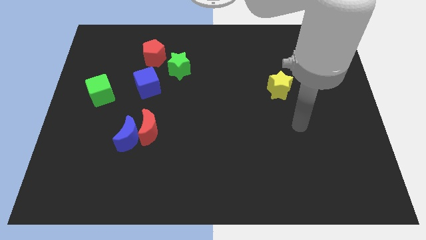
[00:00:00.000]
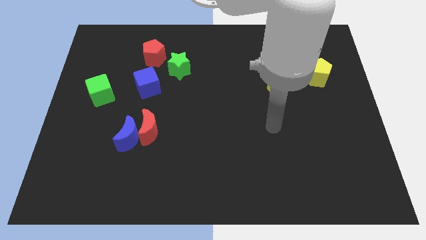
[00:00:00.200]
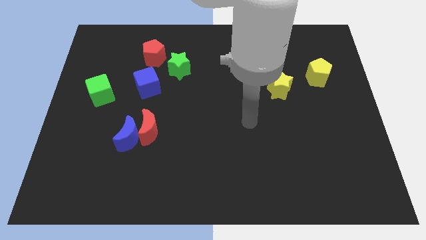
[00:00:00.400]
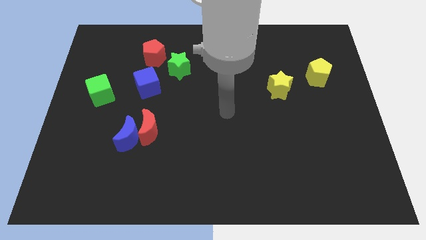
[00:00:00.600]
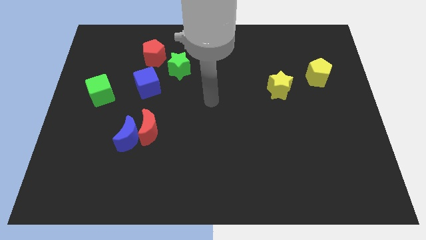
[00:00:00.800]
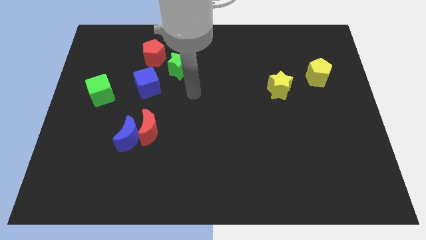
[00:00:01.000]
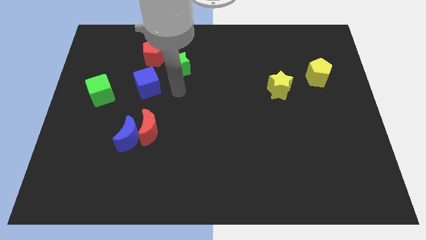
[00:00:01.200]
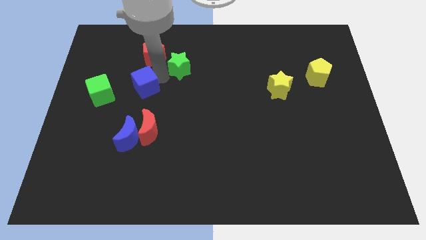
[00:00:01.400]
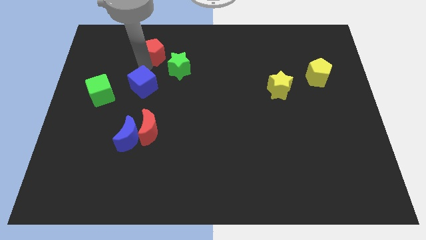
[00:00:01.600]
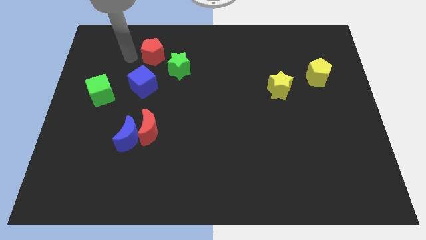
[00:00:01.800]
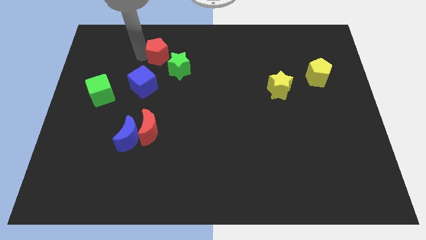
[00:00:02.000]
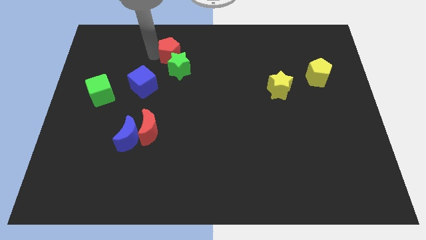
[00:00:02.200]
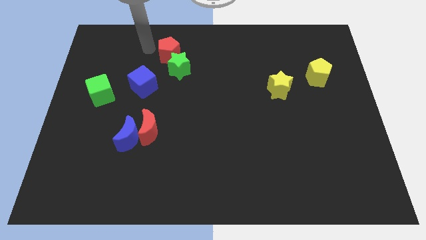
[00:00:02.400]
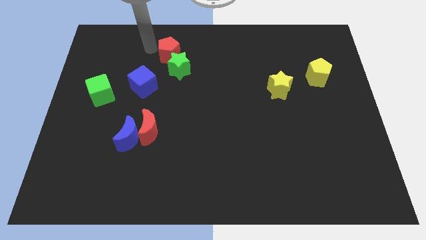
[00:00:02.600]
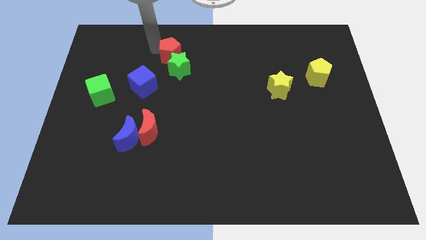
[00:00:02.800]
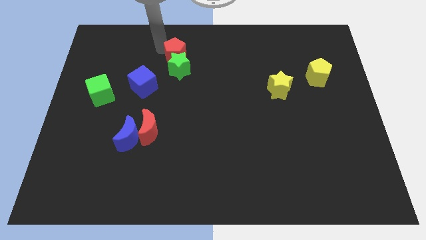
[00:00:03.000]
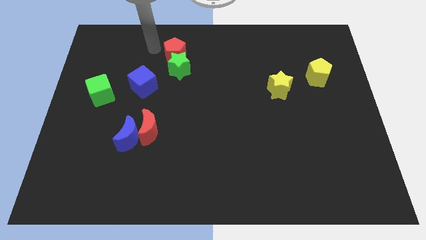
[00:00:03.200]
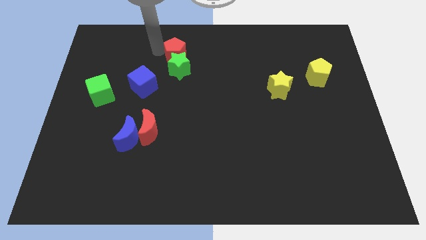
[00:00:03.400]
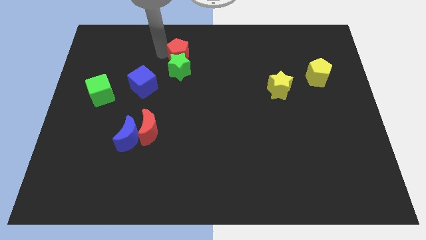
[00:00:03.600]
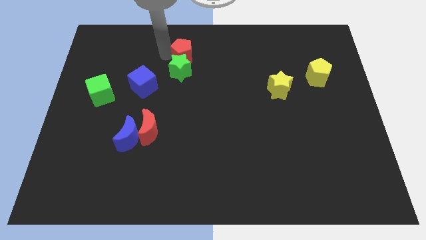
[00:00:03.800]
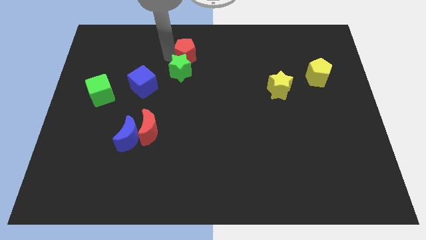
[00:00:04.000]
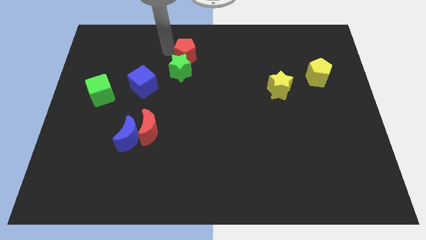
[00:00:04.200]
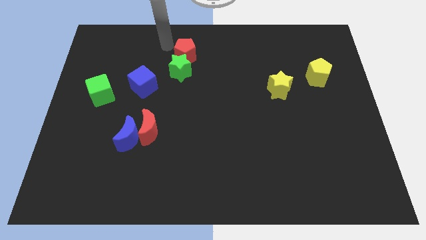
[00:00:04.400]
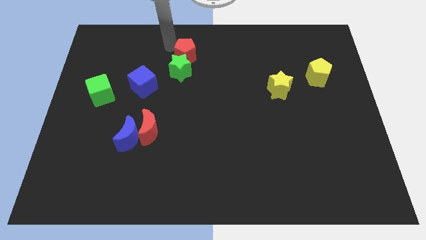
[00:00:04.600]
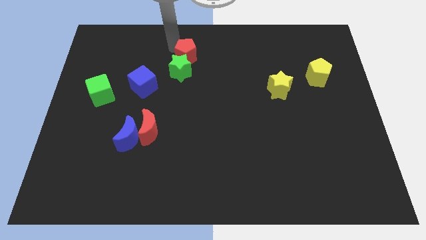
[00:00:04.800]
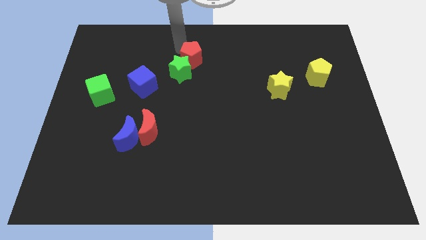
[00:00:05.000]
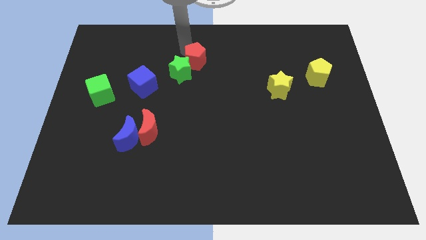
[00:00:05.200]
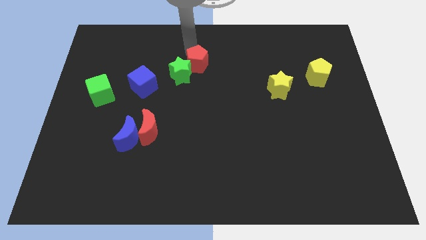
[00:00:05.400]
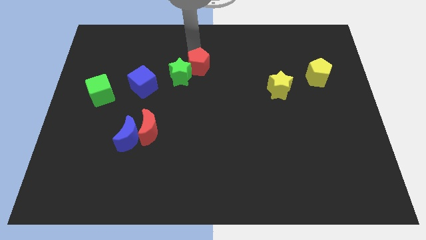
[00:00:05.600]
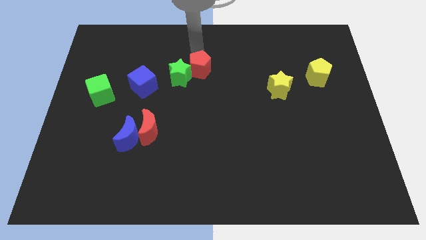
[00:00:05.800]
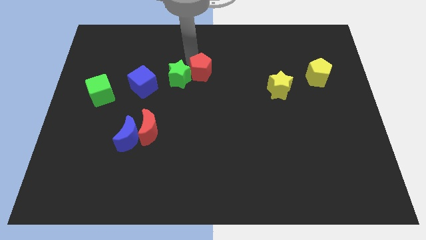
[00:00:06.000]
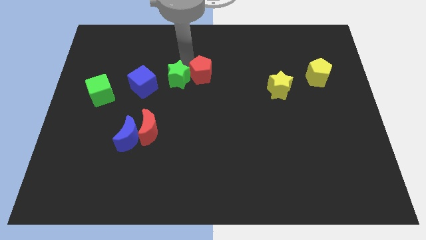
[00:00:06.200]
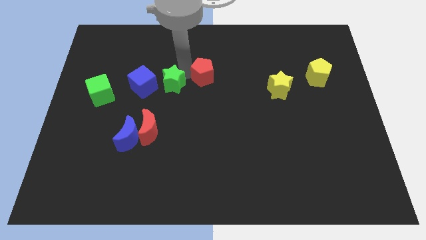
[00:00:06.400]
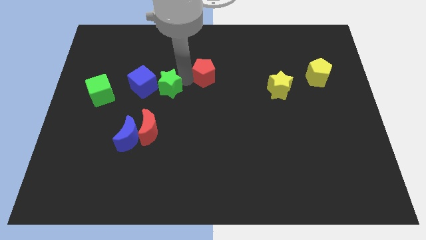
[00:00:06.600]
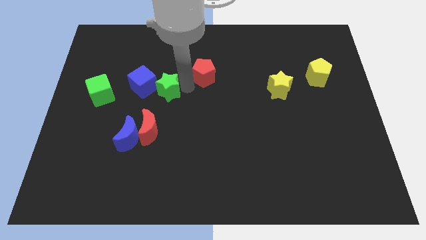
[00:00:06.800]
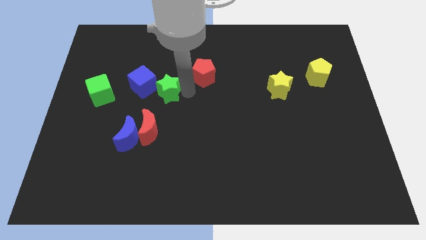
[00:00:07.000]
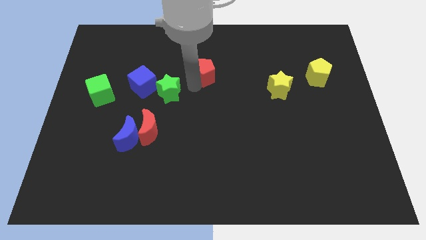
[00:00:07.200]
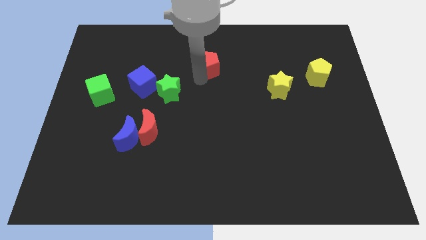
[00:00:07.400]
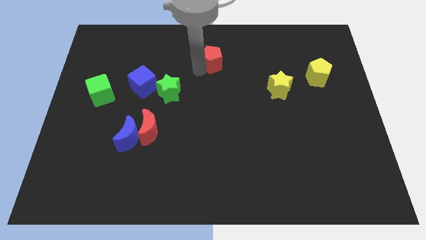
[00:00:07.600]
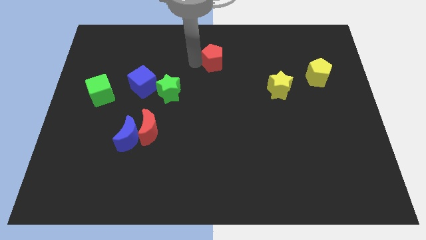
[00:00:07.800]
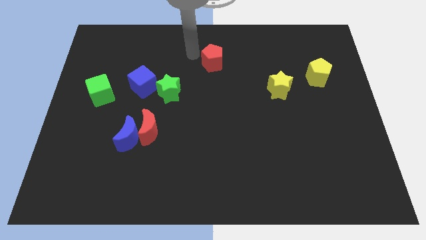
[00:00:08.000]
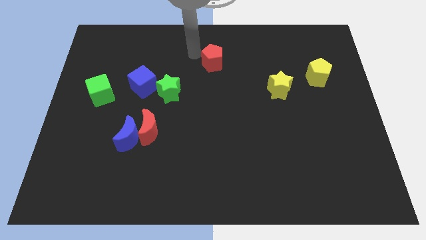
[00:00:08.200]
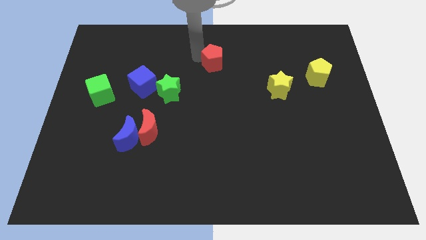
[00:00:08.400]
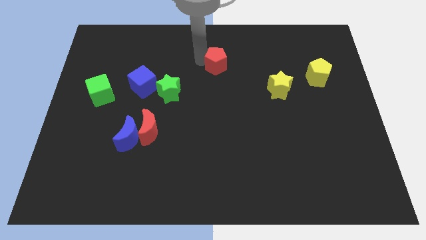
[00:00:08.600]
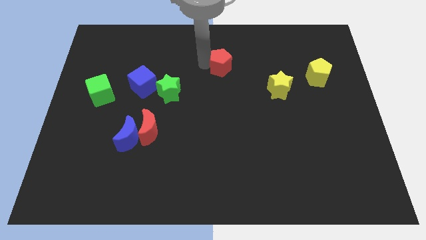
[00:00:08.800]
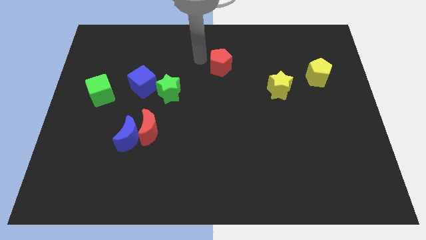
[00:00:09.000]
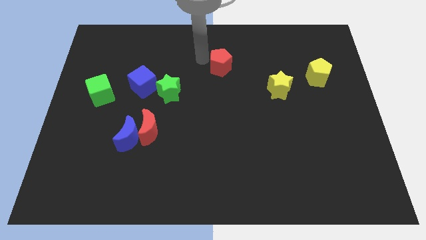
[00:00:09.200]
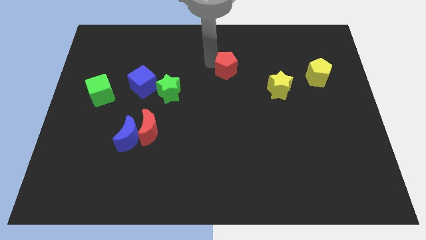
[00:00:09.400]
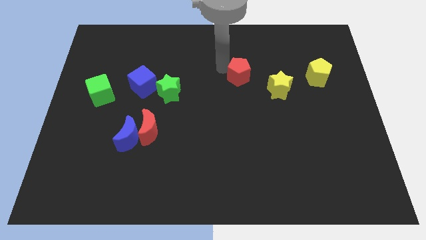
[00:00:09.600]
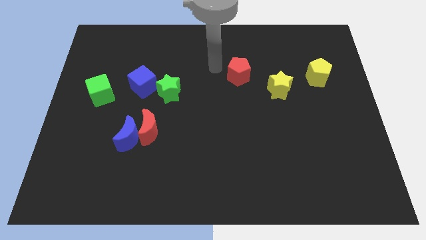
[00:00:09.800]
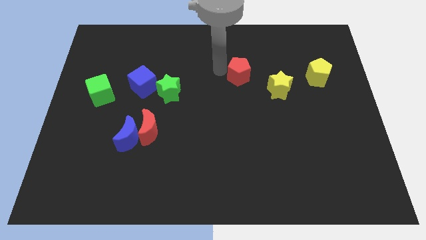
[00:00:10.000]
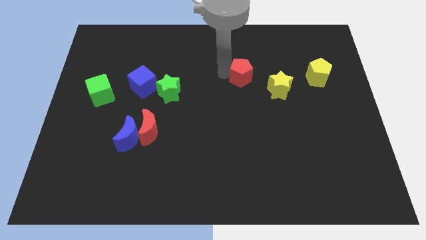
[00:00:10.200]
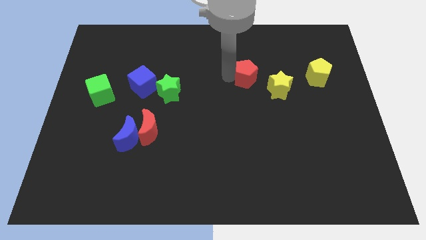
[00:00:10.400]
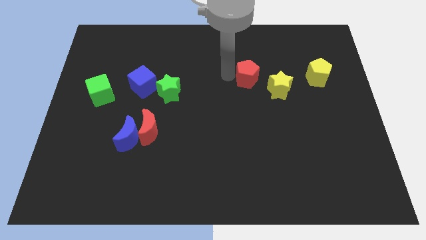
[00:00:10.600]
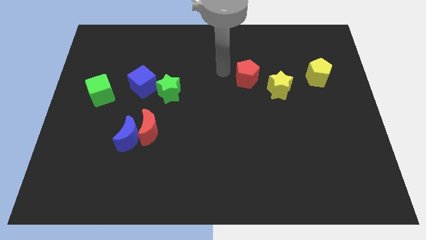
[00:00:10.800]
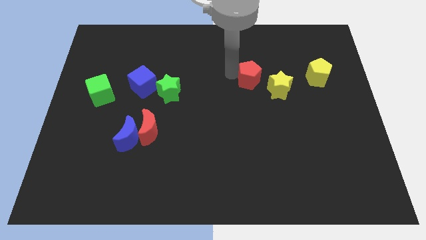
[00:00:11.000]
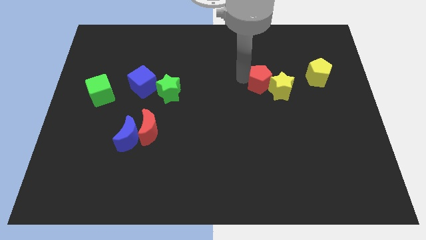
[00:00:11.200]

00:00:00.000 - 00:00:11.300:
put the red pentagon to the yellow star

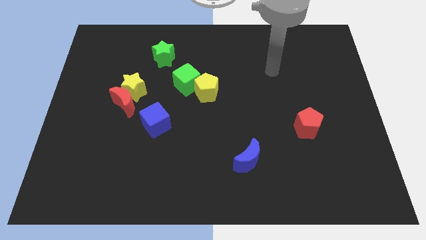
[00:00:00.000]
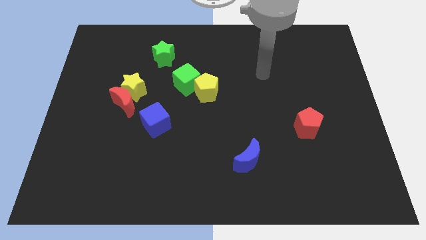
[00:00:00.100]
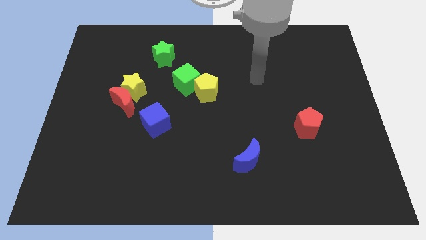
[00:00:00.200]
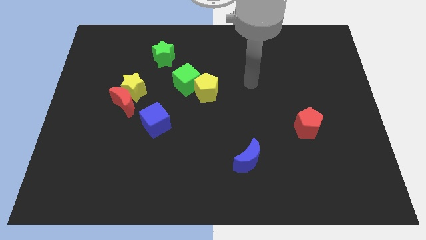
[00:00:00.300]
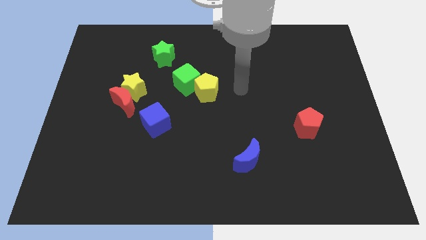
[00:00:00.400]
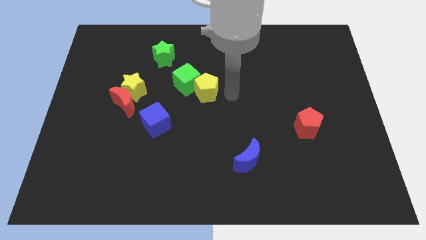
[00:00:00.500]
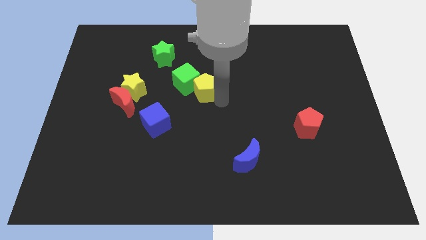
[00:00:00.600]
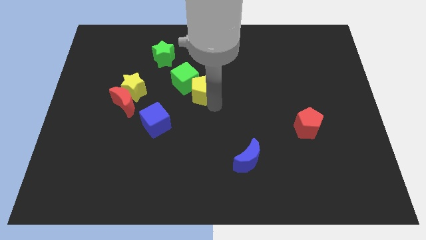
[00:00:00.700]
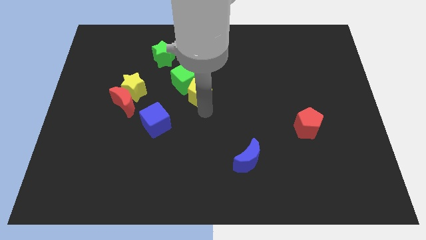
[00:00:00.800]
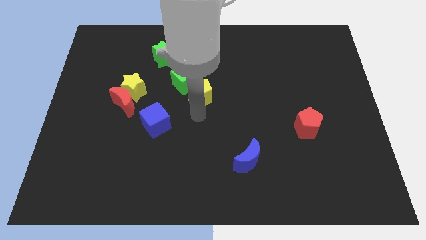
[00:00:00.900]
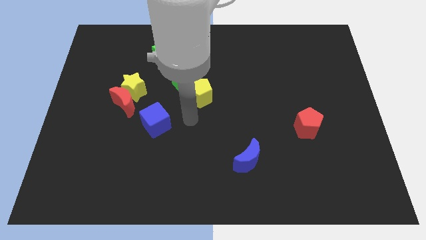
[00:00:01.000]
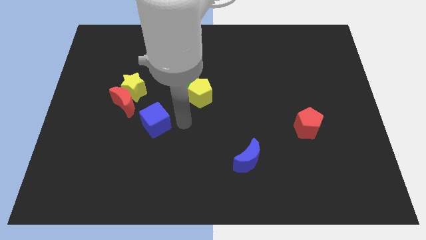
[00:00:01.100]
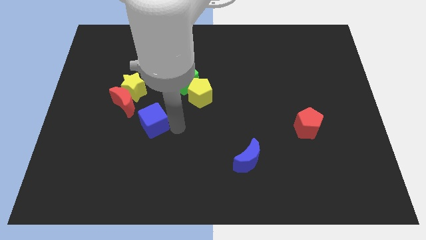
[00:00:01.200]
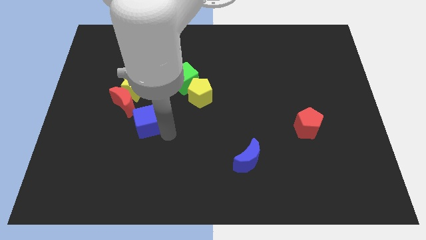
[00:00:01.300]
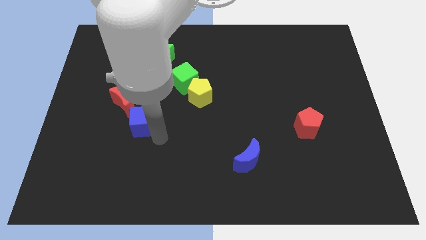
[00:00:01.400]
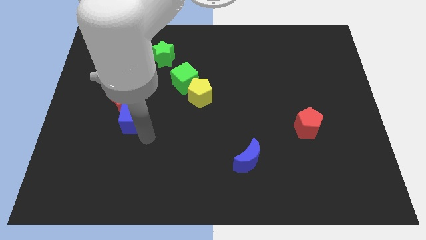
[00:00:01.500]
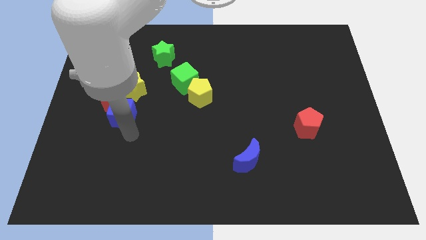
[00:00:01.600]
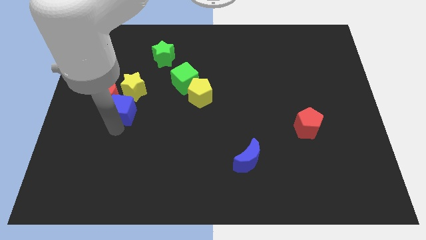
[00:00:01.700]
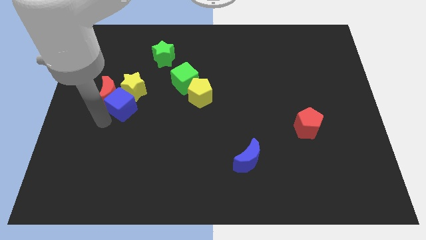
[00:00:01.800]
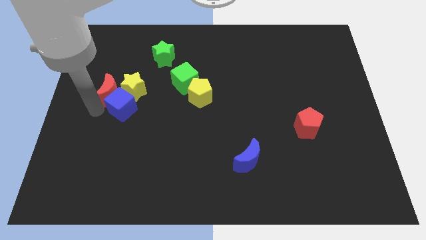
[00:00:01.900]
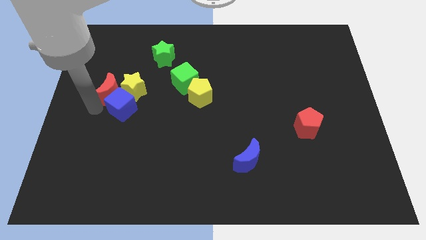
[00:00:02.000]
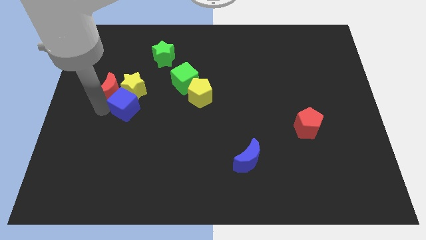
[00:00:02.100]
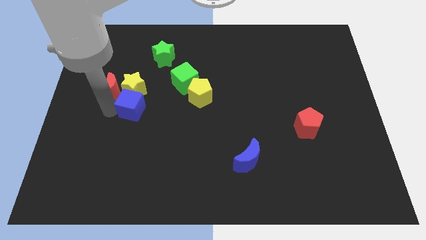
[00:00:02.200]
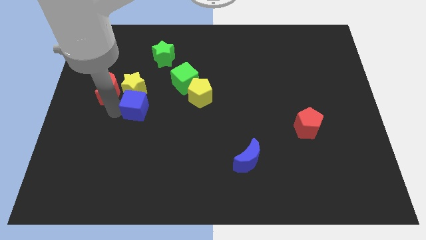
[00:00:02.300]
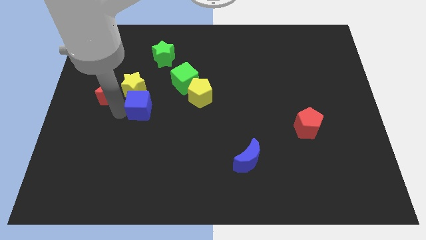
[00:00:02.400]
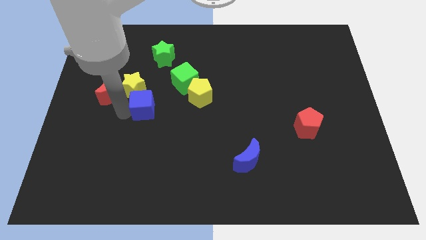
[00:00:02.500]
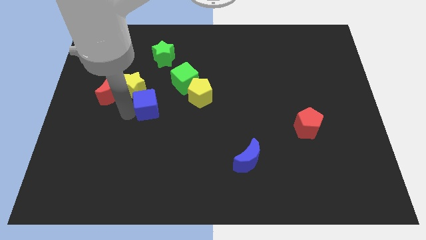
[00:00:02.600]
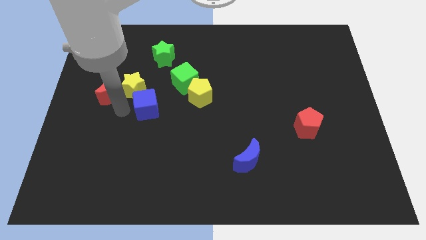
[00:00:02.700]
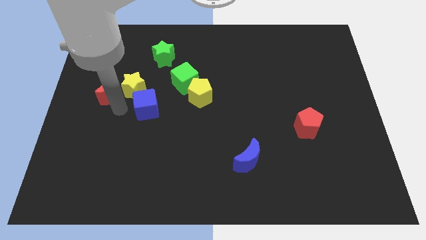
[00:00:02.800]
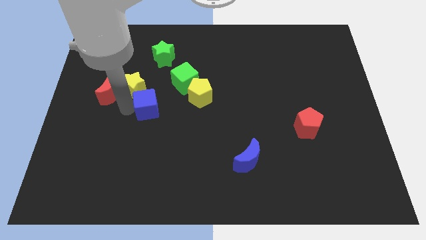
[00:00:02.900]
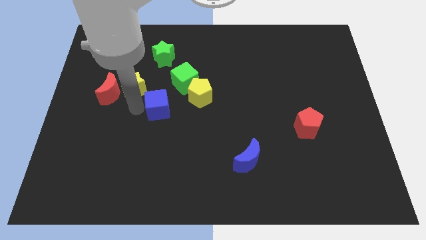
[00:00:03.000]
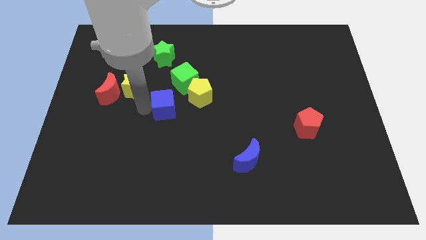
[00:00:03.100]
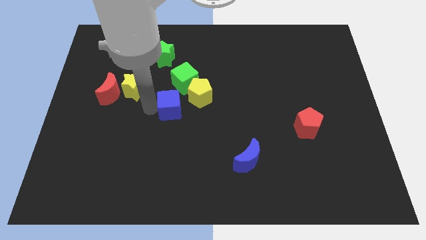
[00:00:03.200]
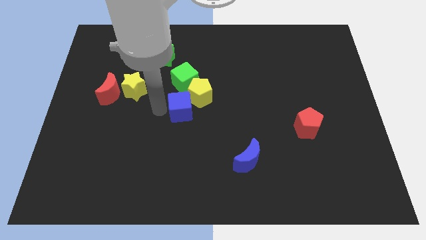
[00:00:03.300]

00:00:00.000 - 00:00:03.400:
push the blue cube to the yellow pentagon
